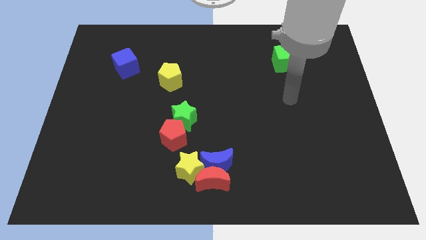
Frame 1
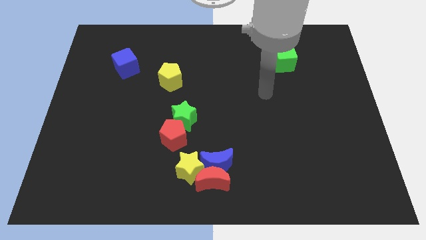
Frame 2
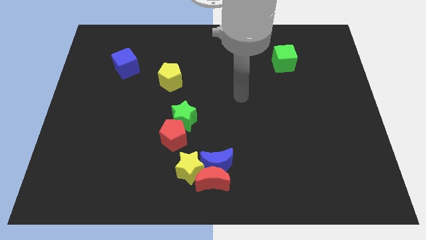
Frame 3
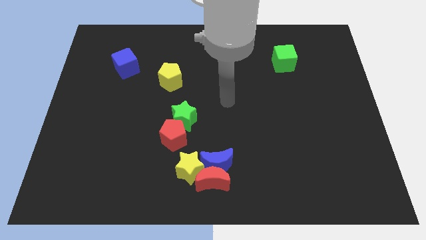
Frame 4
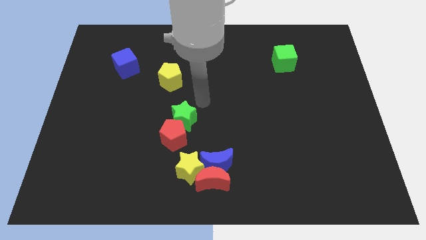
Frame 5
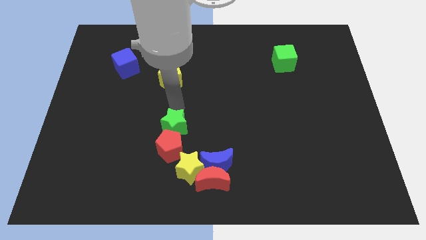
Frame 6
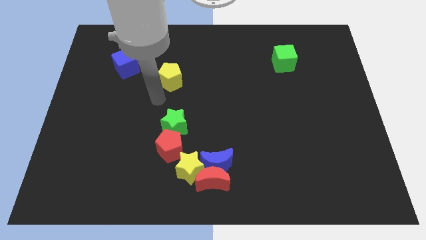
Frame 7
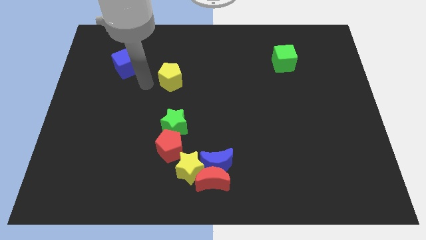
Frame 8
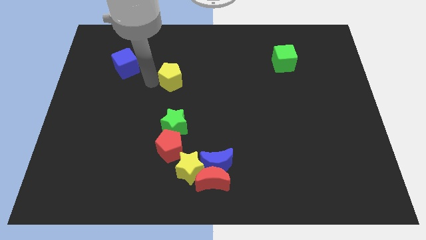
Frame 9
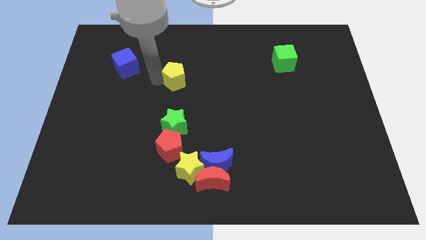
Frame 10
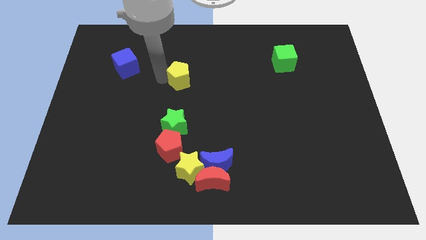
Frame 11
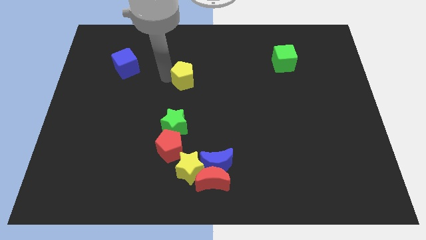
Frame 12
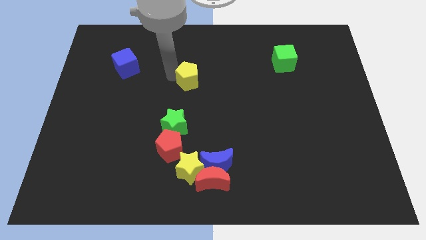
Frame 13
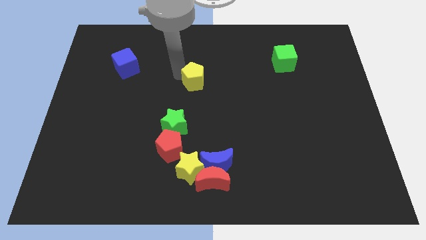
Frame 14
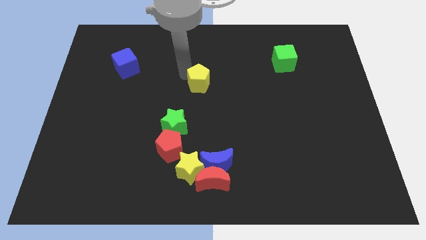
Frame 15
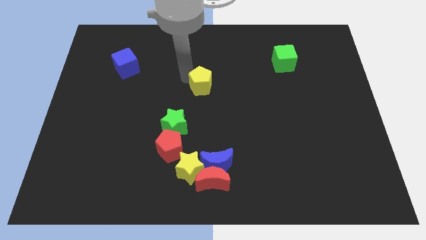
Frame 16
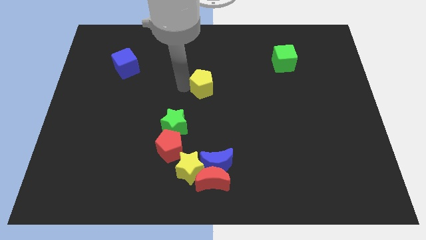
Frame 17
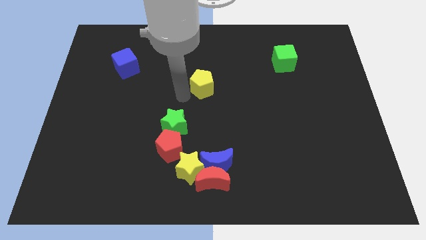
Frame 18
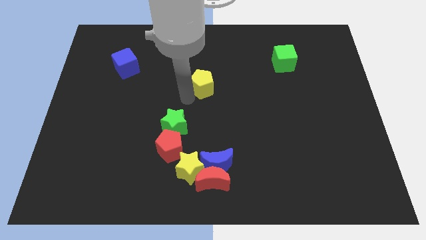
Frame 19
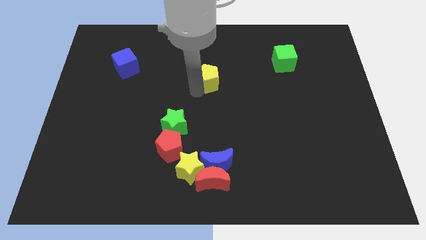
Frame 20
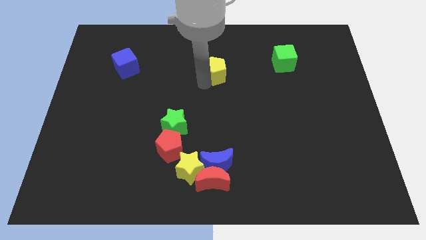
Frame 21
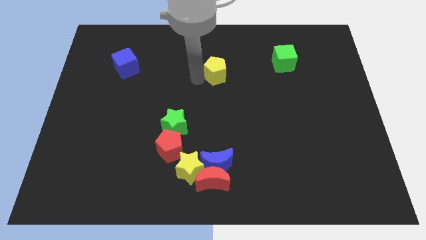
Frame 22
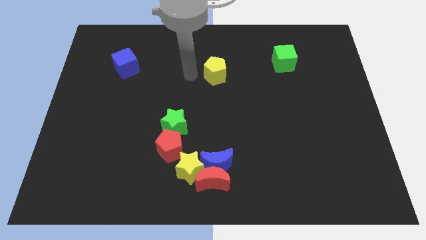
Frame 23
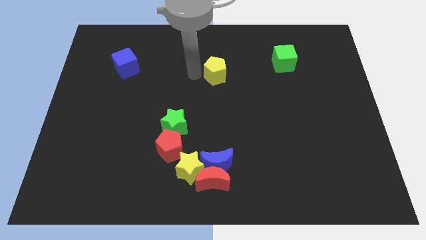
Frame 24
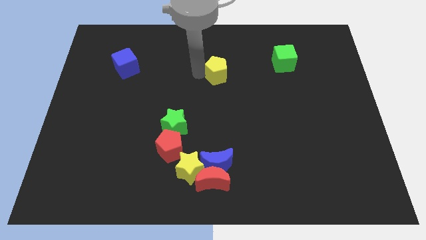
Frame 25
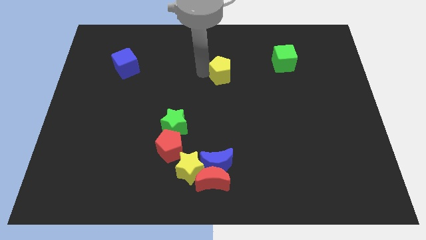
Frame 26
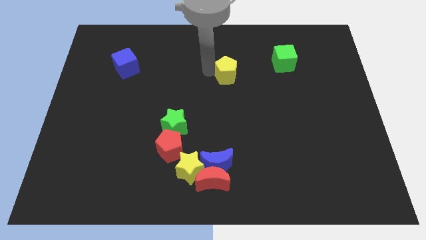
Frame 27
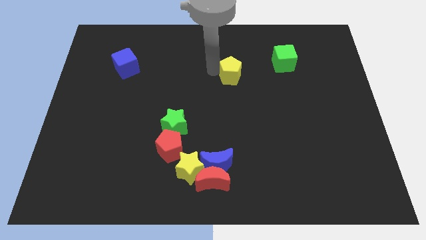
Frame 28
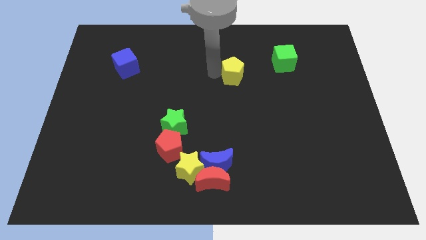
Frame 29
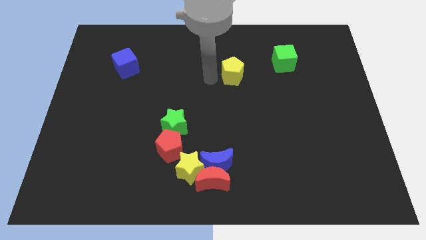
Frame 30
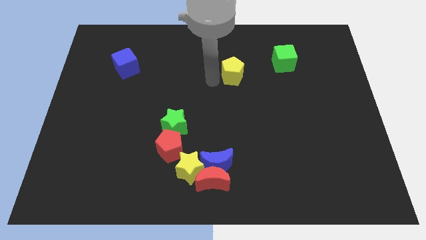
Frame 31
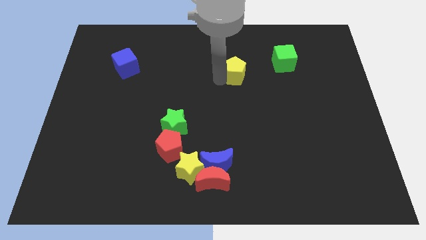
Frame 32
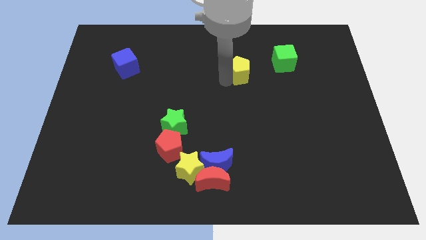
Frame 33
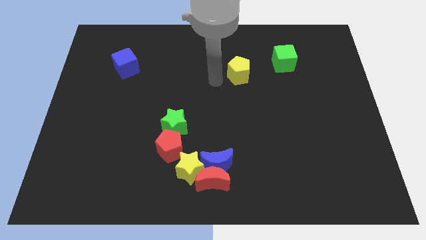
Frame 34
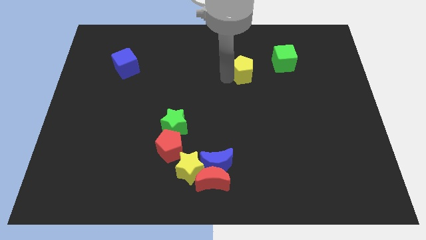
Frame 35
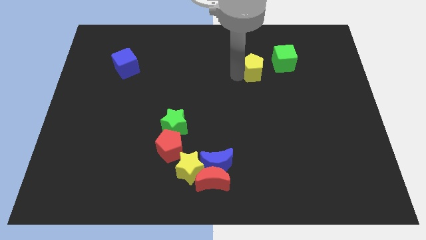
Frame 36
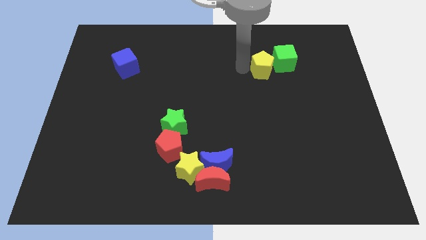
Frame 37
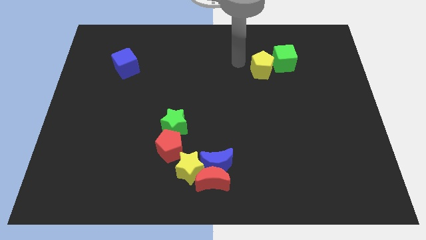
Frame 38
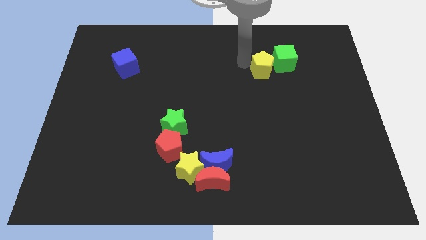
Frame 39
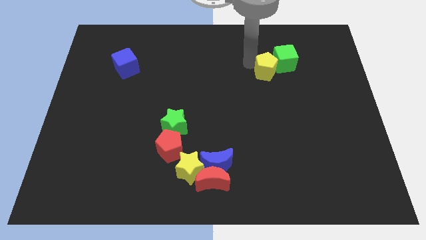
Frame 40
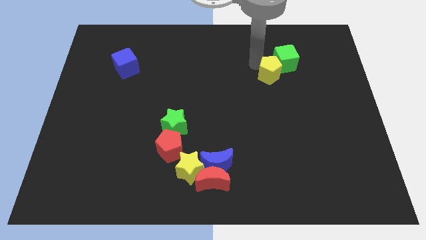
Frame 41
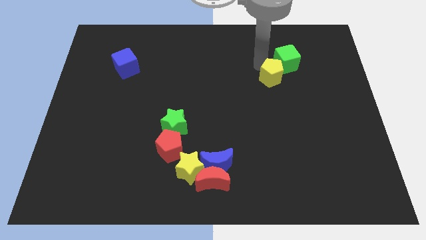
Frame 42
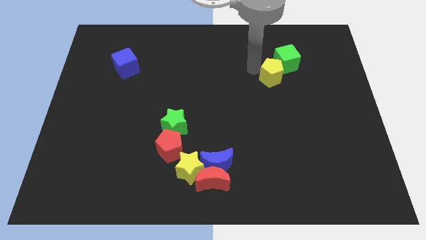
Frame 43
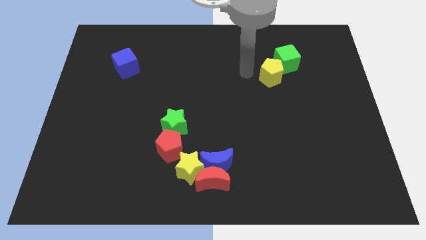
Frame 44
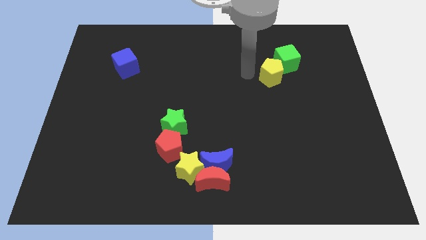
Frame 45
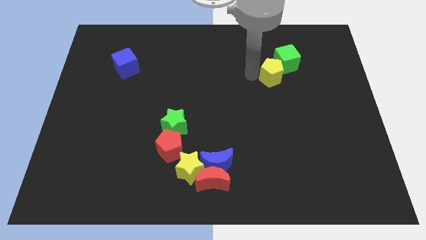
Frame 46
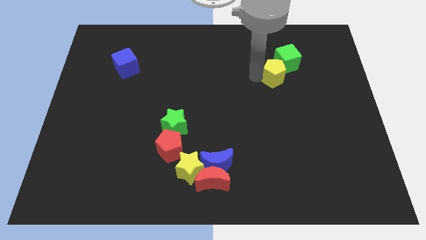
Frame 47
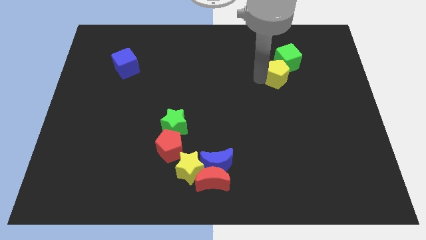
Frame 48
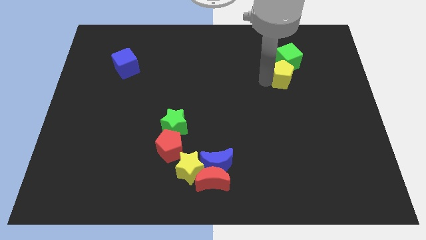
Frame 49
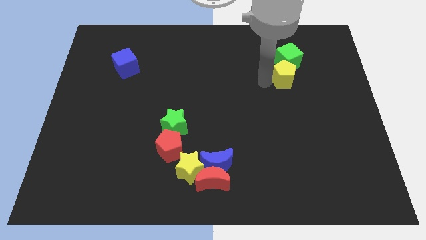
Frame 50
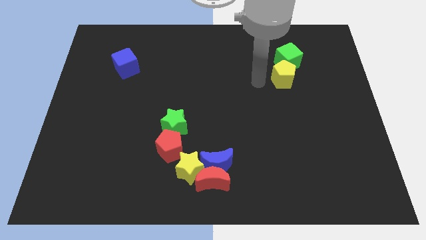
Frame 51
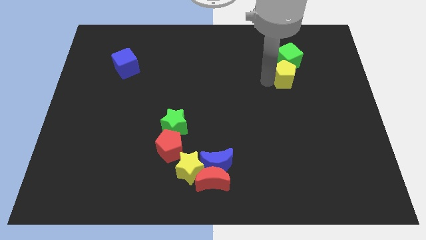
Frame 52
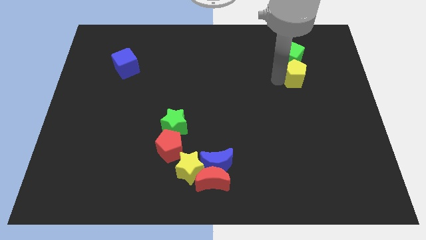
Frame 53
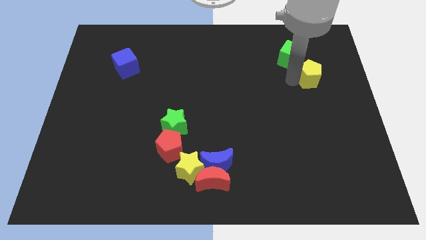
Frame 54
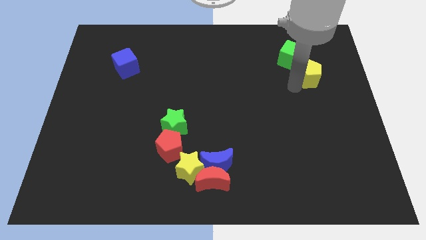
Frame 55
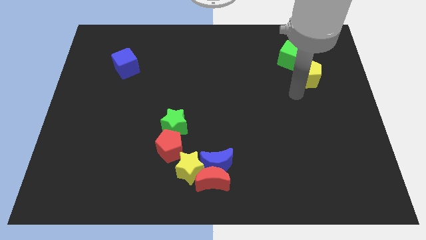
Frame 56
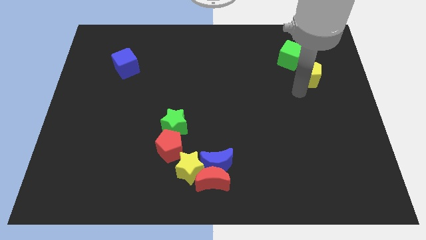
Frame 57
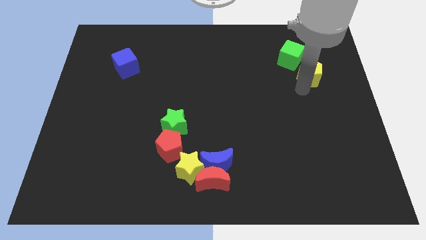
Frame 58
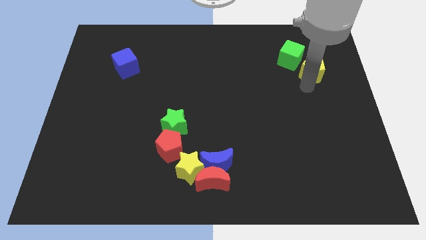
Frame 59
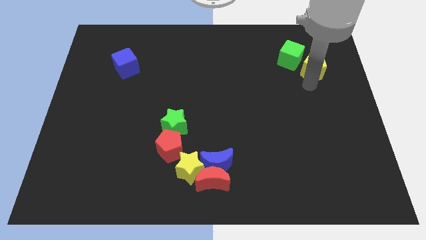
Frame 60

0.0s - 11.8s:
push the yellow pentagon to the right of the green cube

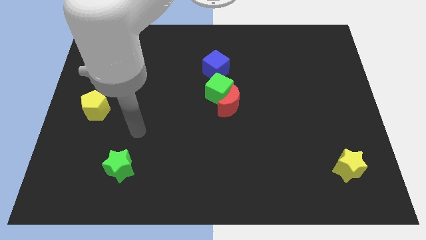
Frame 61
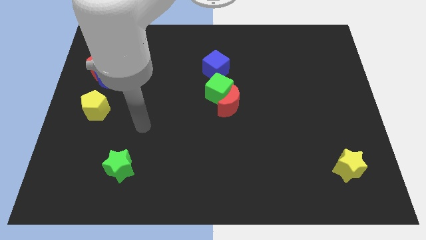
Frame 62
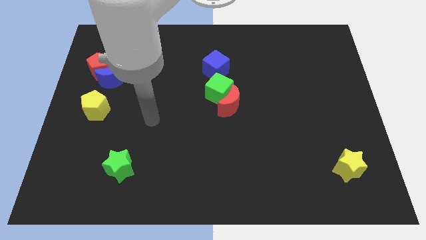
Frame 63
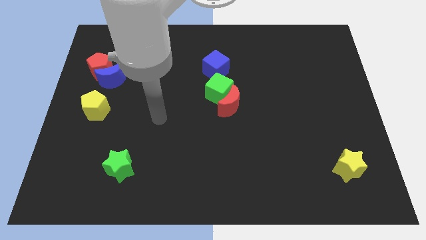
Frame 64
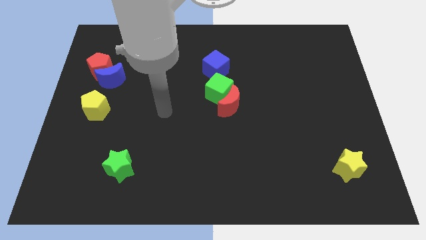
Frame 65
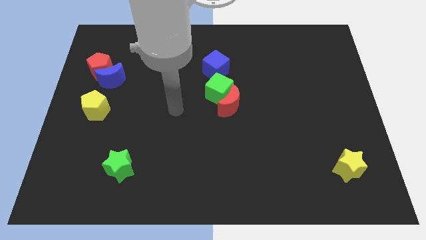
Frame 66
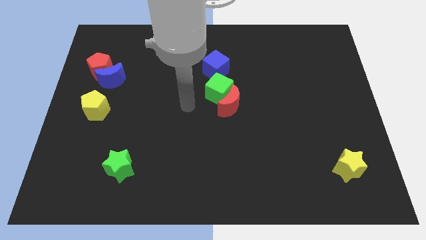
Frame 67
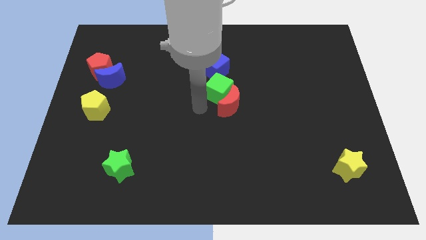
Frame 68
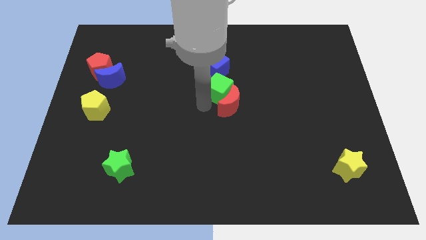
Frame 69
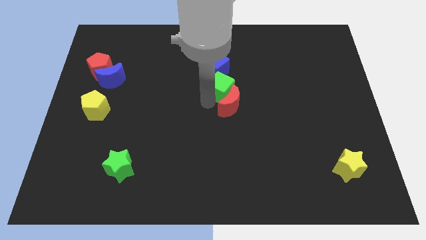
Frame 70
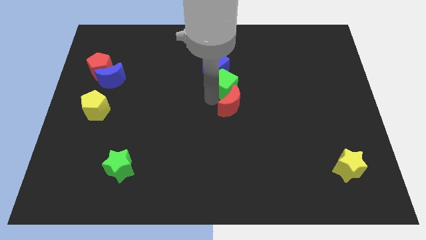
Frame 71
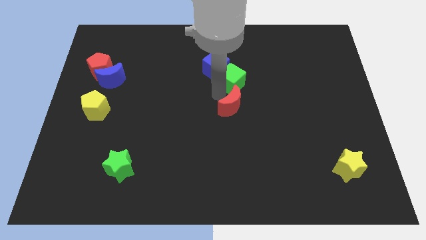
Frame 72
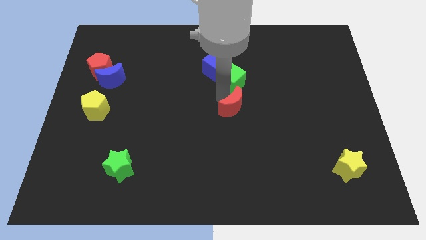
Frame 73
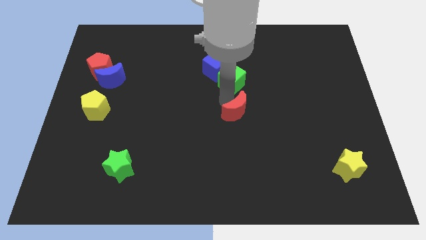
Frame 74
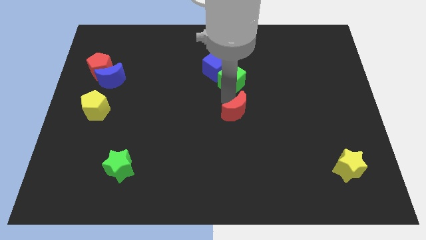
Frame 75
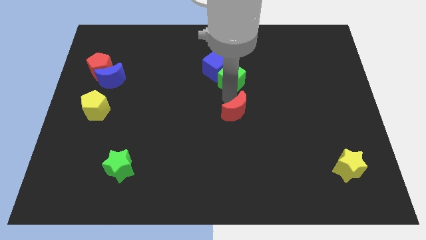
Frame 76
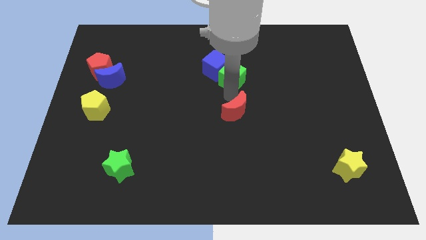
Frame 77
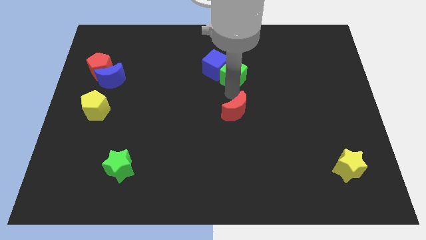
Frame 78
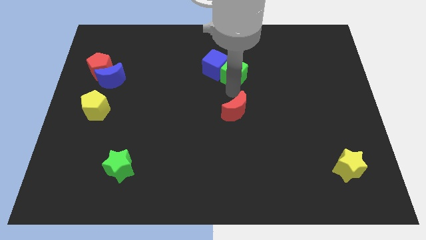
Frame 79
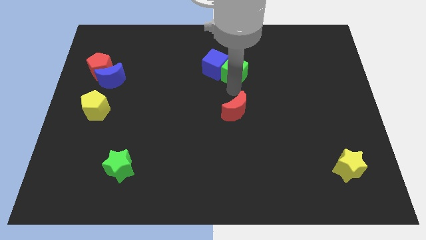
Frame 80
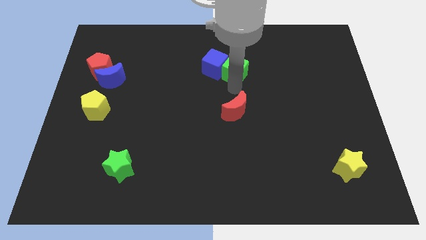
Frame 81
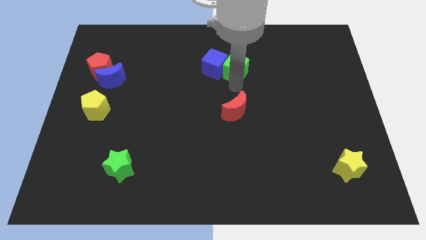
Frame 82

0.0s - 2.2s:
push the green cube to the top right side of the blue cube
